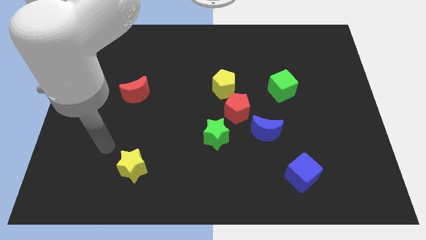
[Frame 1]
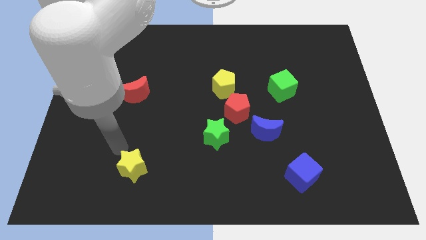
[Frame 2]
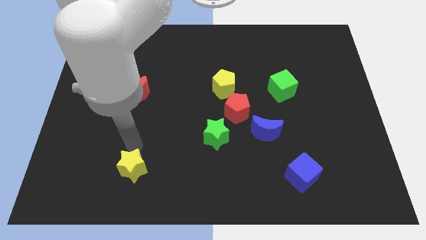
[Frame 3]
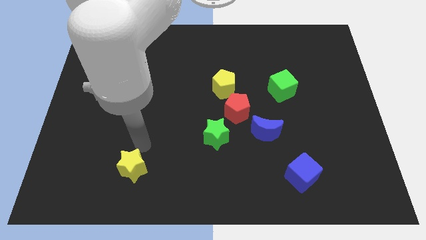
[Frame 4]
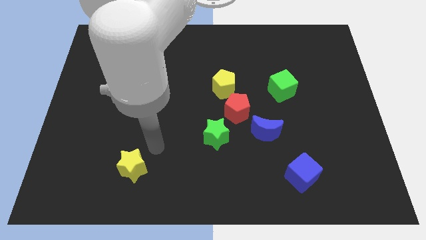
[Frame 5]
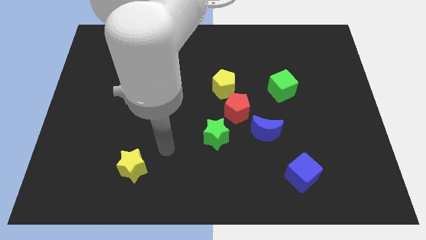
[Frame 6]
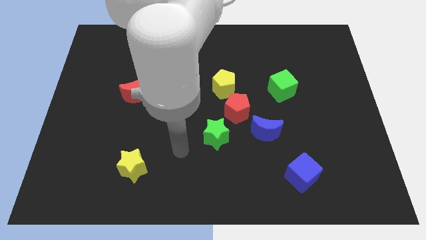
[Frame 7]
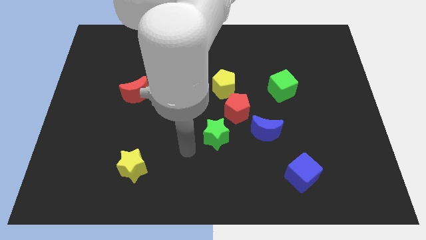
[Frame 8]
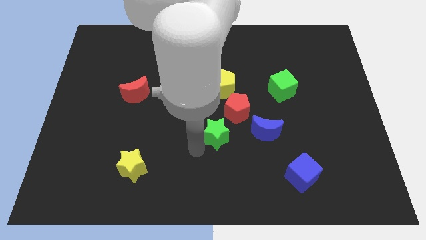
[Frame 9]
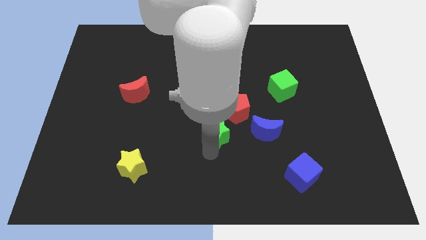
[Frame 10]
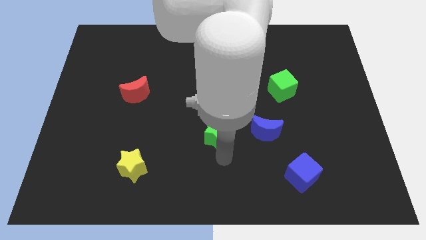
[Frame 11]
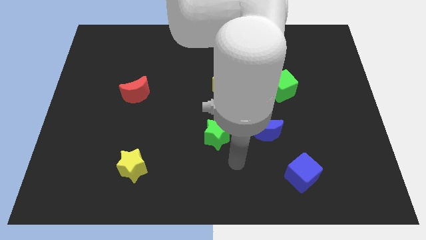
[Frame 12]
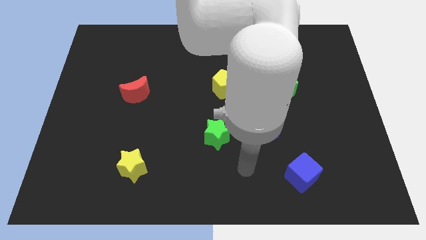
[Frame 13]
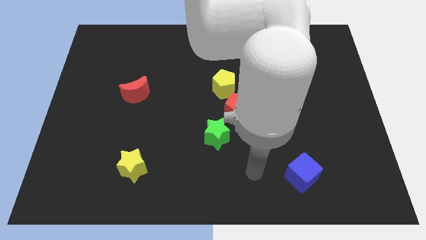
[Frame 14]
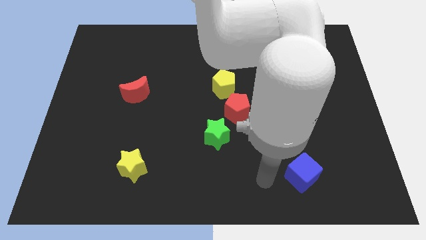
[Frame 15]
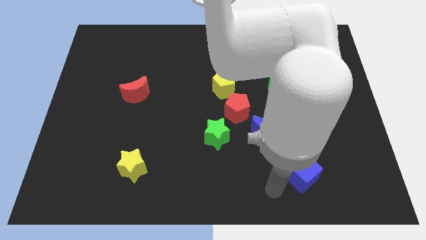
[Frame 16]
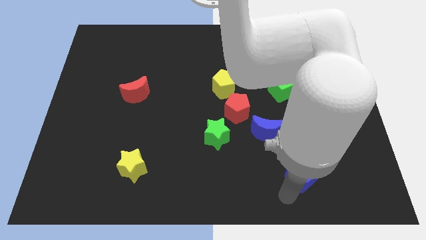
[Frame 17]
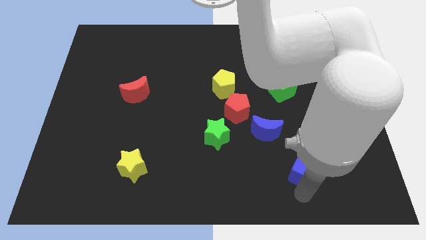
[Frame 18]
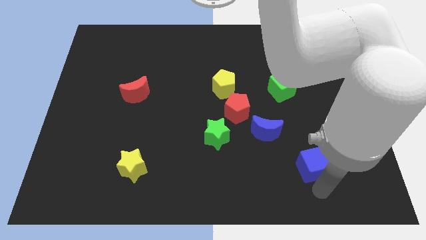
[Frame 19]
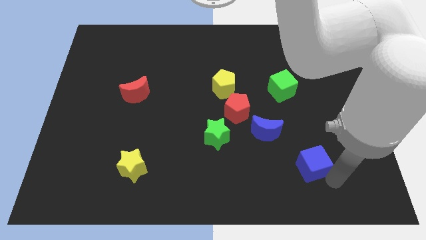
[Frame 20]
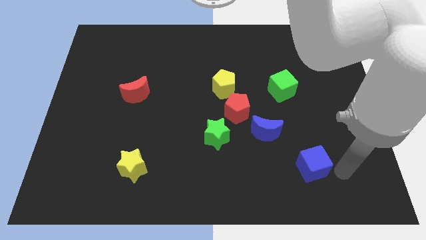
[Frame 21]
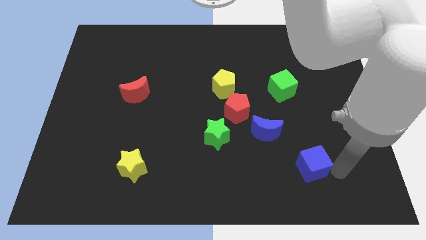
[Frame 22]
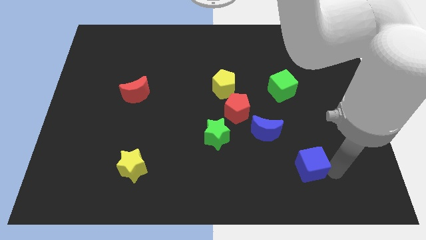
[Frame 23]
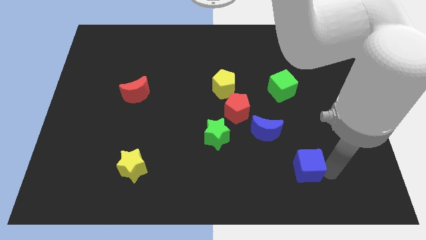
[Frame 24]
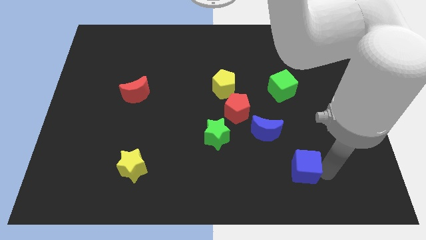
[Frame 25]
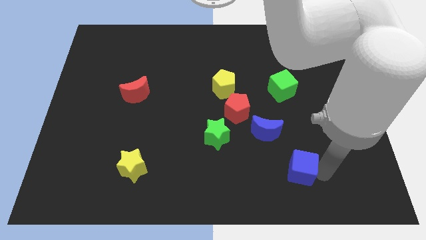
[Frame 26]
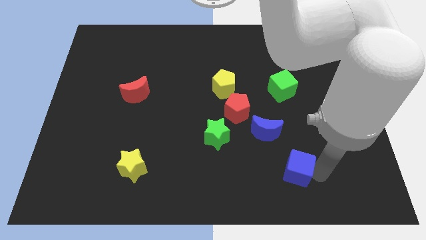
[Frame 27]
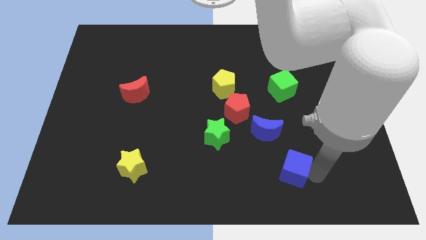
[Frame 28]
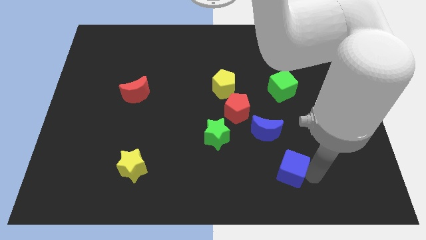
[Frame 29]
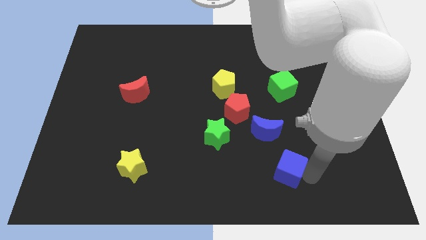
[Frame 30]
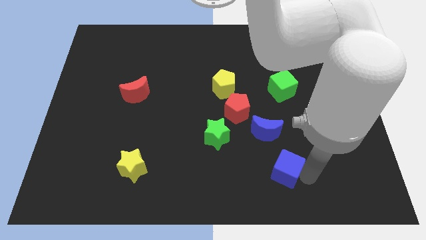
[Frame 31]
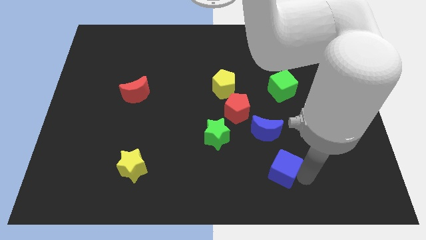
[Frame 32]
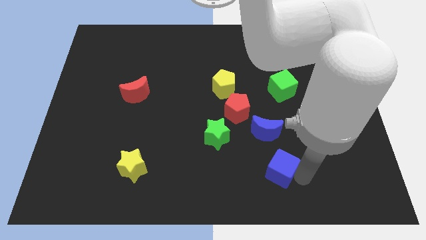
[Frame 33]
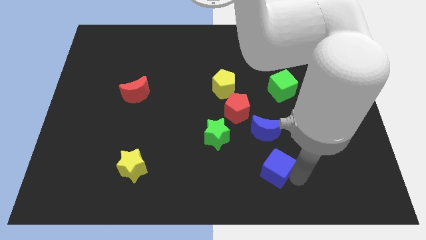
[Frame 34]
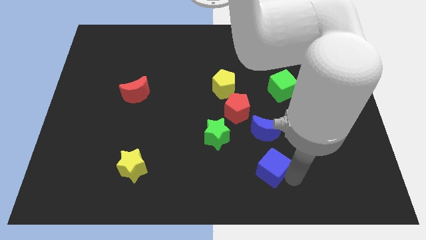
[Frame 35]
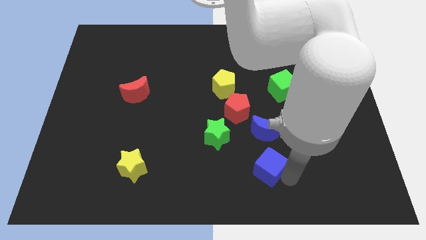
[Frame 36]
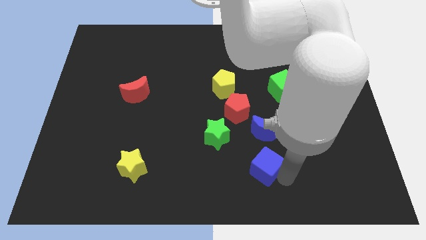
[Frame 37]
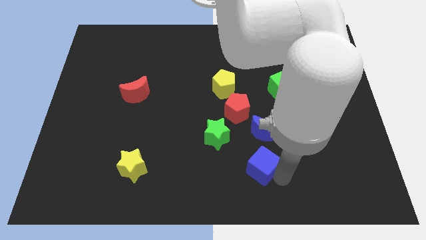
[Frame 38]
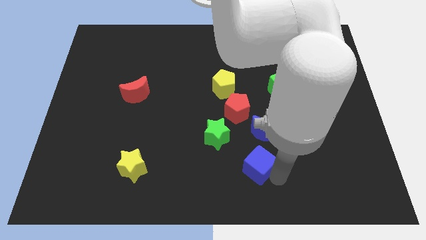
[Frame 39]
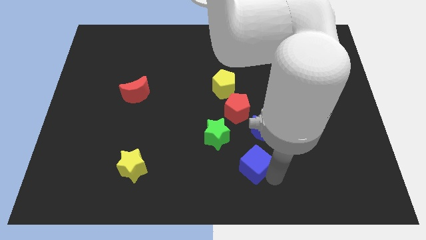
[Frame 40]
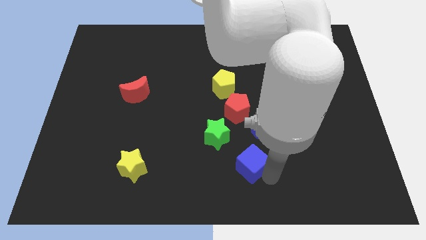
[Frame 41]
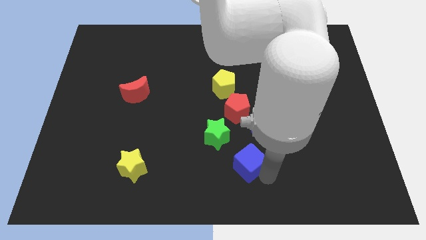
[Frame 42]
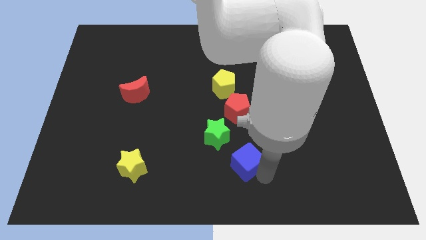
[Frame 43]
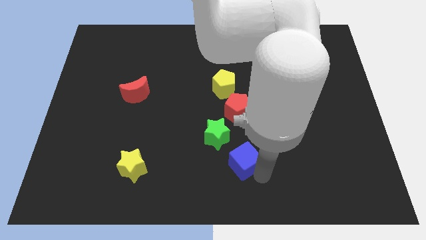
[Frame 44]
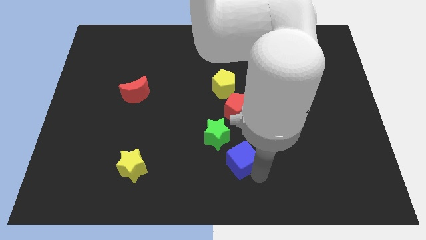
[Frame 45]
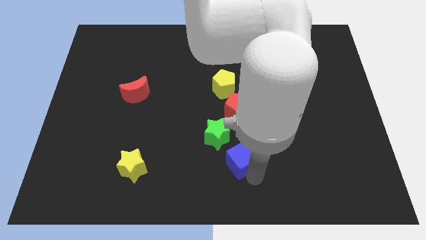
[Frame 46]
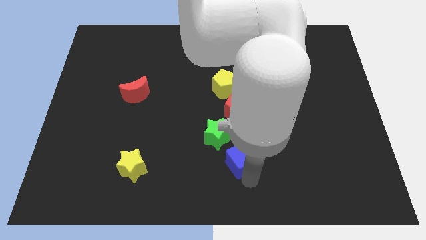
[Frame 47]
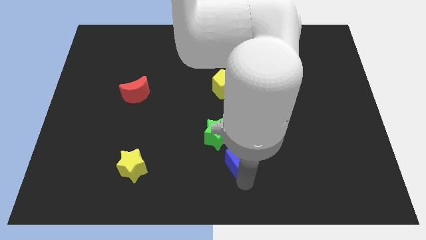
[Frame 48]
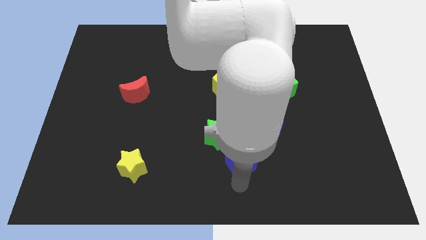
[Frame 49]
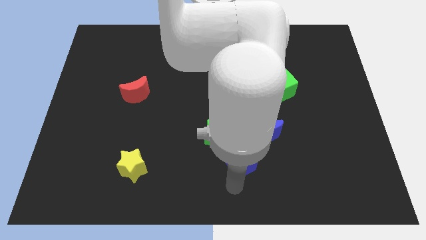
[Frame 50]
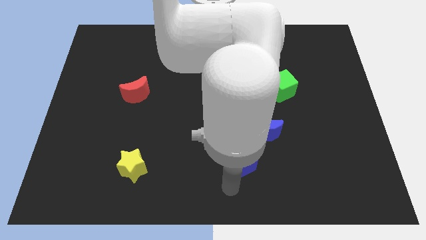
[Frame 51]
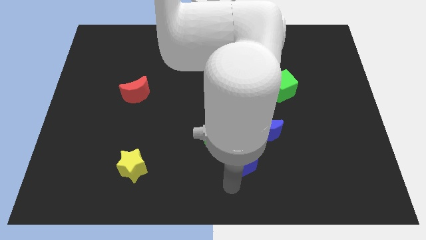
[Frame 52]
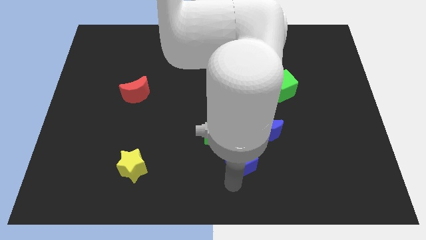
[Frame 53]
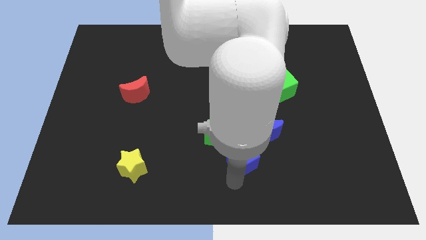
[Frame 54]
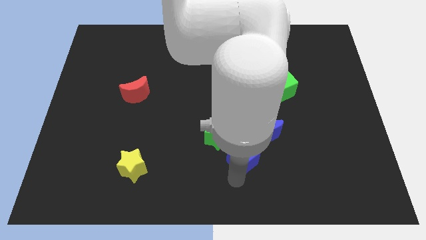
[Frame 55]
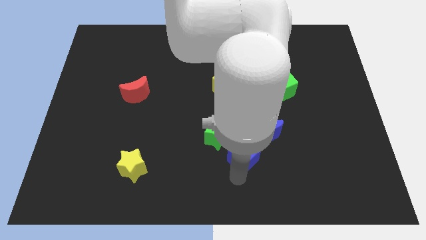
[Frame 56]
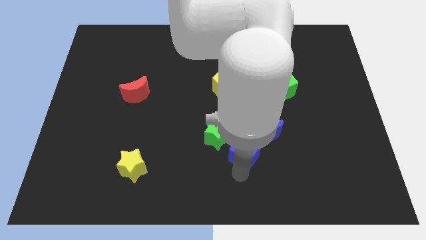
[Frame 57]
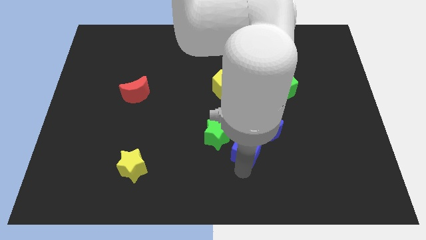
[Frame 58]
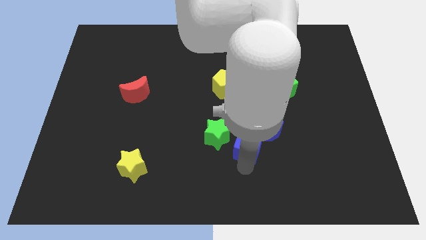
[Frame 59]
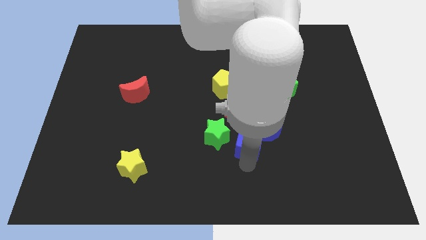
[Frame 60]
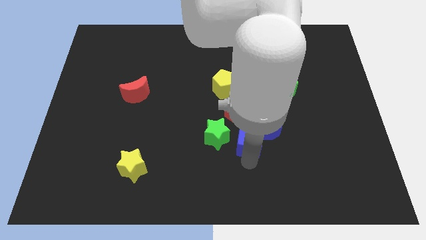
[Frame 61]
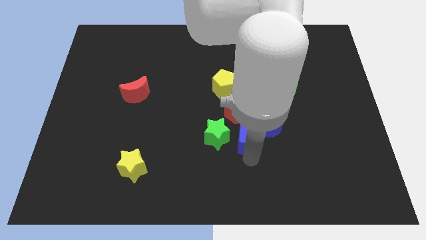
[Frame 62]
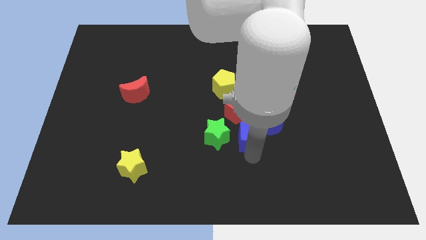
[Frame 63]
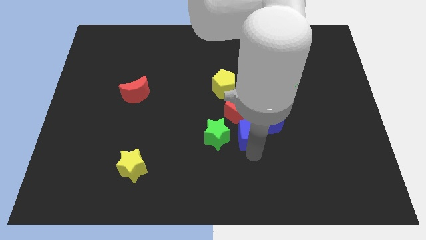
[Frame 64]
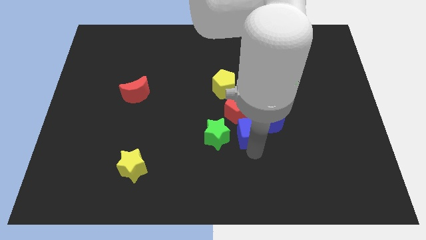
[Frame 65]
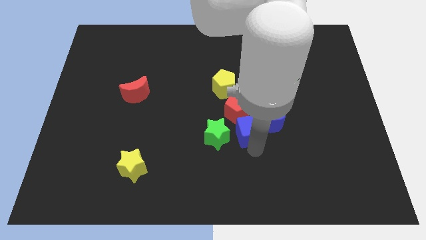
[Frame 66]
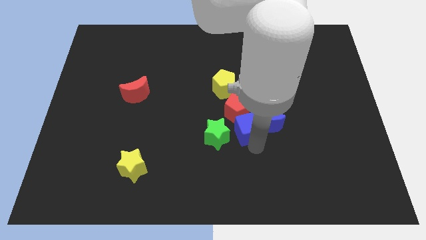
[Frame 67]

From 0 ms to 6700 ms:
slide the blue cube next to the red pentagon
